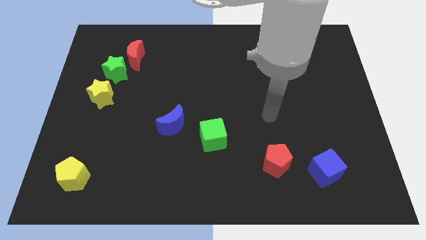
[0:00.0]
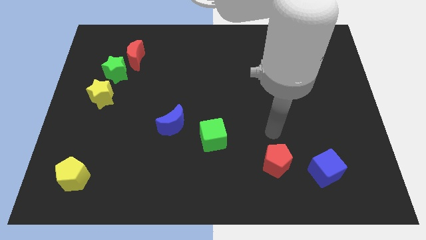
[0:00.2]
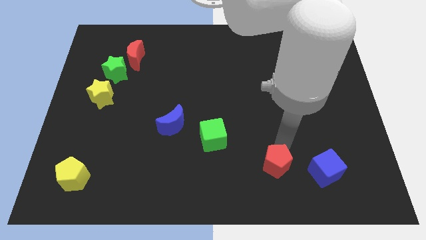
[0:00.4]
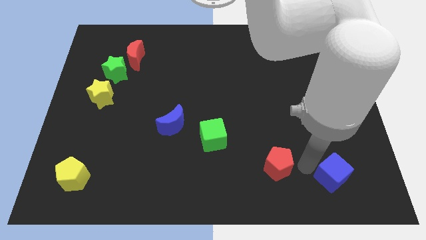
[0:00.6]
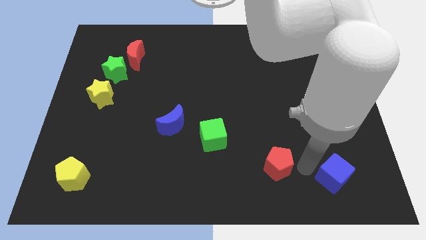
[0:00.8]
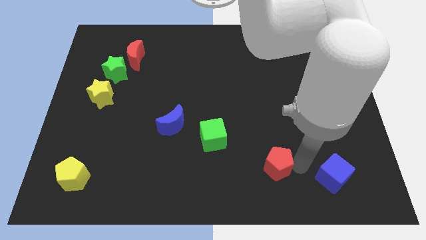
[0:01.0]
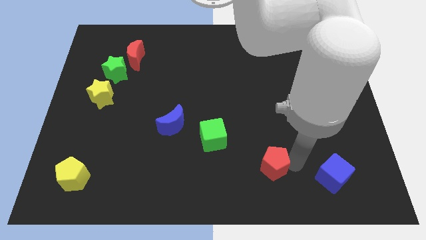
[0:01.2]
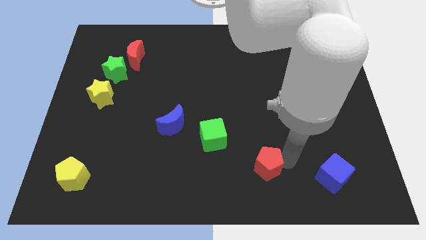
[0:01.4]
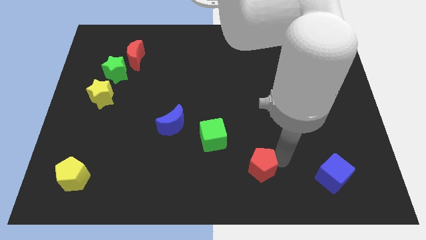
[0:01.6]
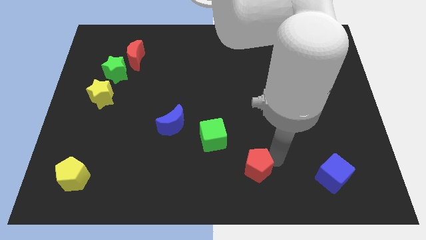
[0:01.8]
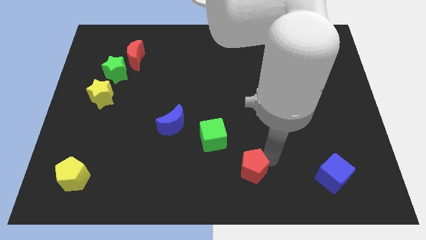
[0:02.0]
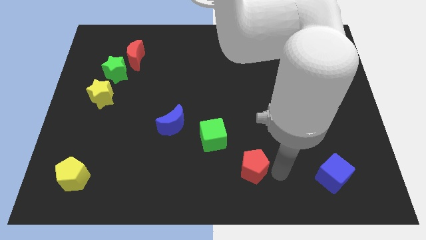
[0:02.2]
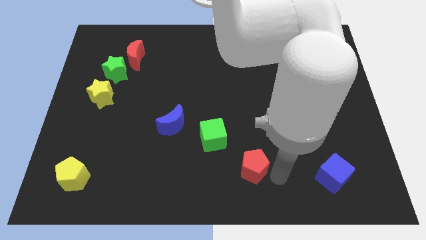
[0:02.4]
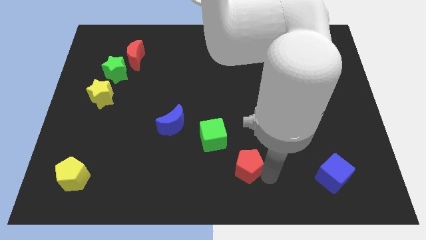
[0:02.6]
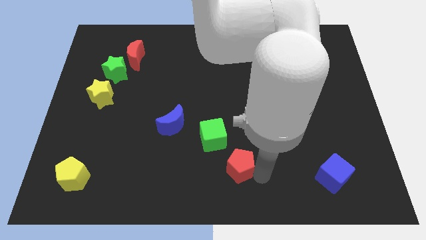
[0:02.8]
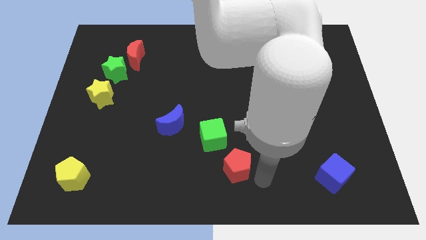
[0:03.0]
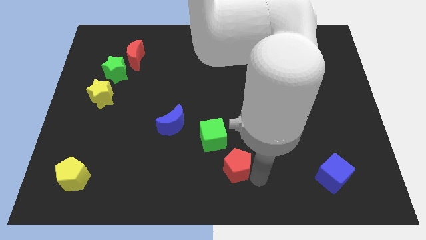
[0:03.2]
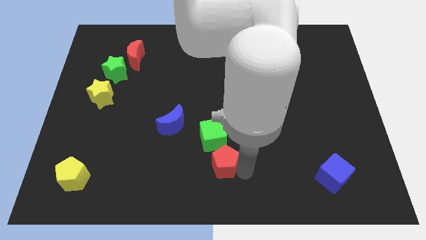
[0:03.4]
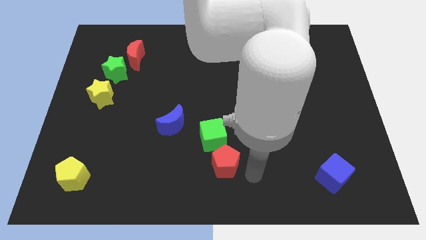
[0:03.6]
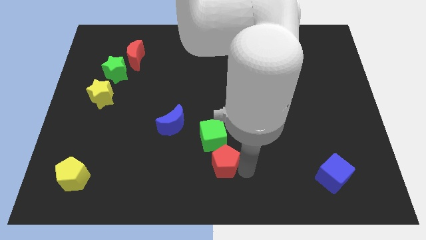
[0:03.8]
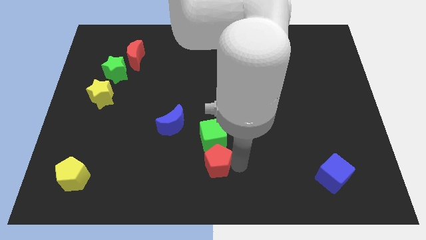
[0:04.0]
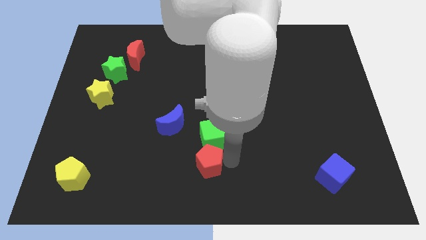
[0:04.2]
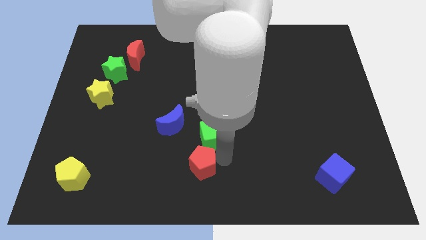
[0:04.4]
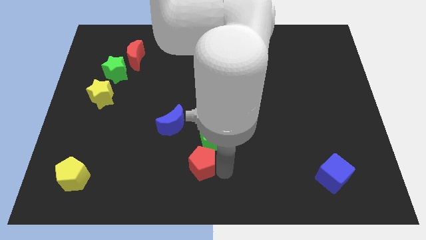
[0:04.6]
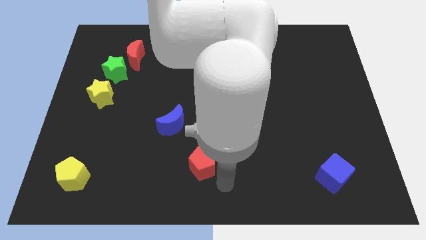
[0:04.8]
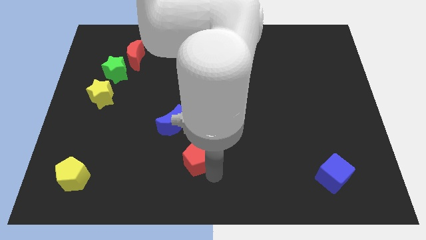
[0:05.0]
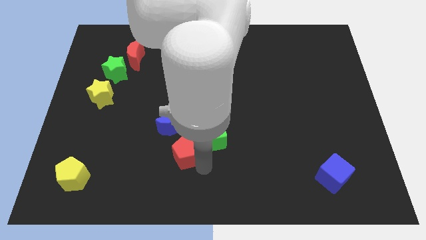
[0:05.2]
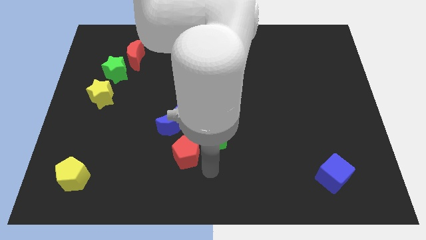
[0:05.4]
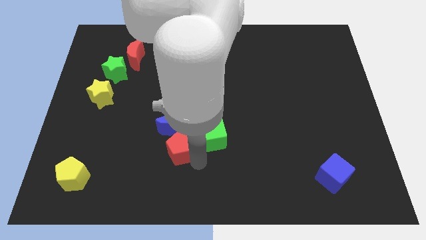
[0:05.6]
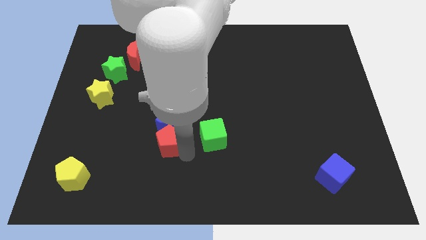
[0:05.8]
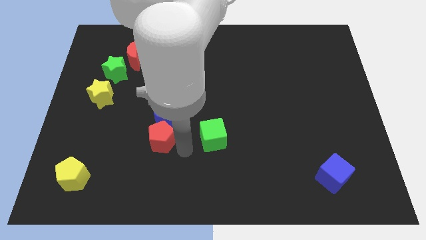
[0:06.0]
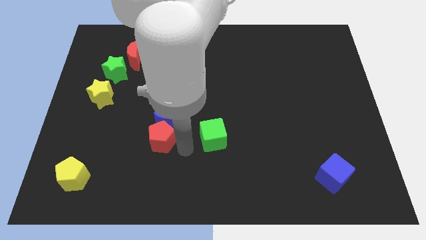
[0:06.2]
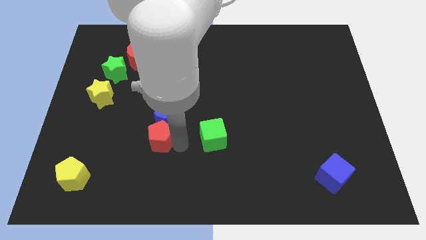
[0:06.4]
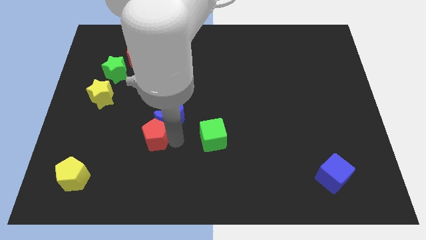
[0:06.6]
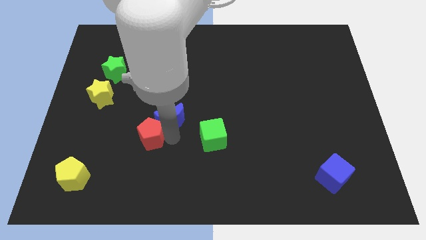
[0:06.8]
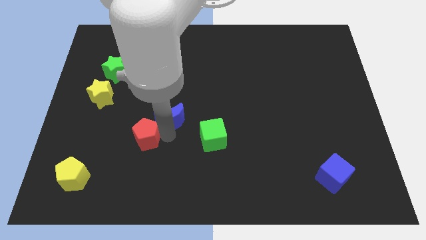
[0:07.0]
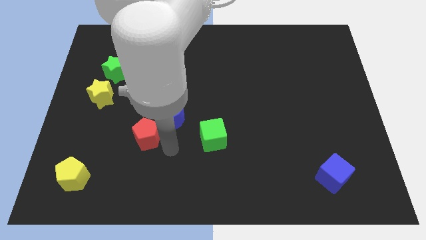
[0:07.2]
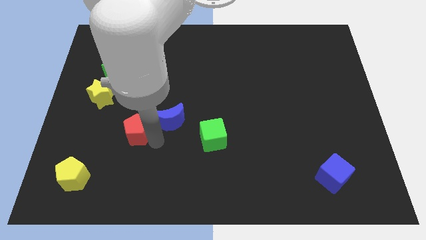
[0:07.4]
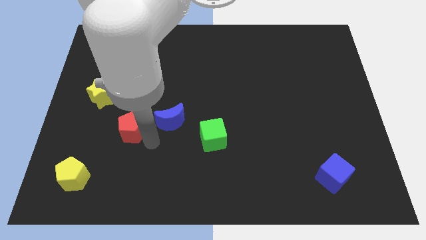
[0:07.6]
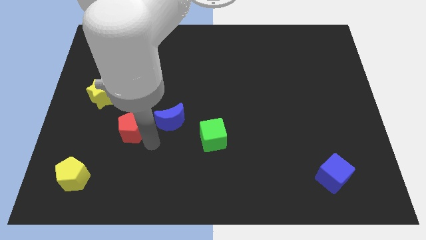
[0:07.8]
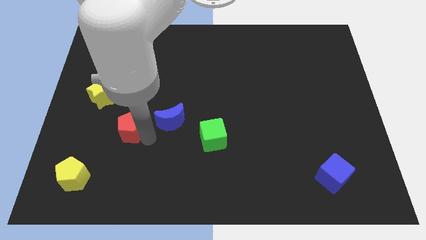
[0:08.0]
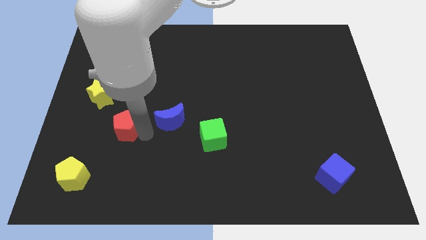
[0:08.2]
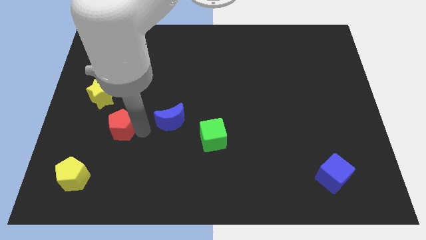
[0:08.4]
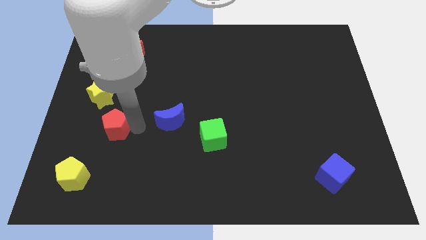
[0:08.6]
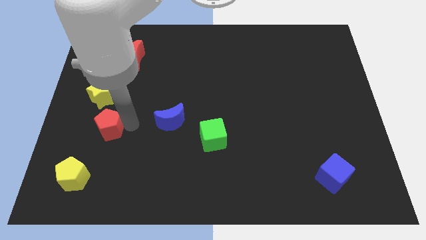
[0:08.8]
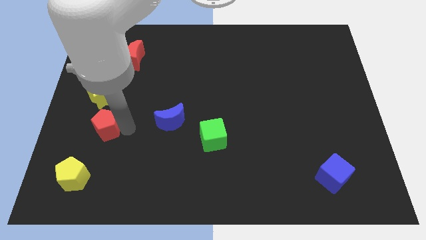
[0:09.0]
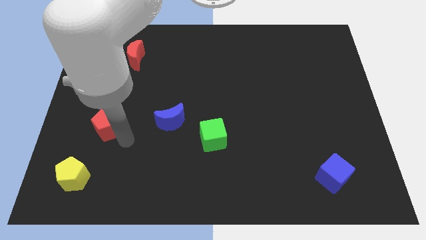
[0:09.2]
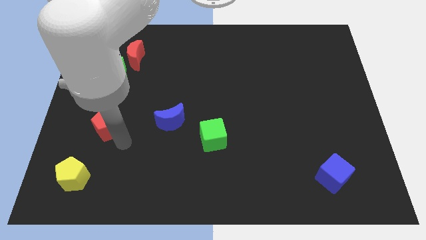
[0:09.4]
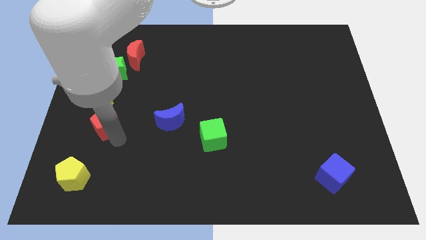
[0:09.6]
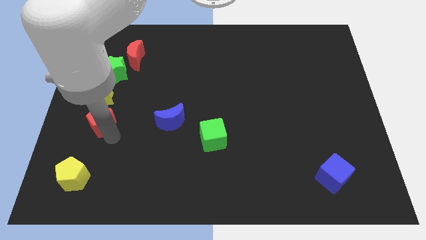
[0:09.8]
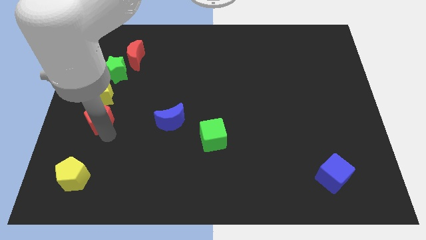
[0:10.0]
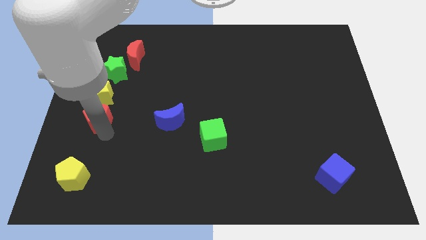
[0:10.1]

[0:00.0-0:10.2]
move the red pentagon to the center left

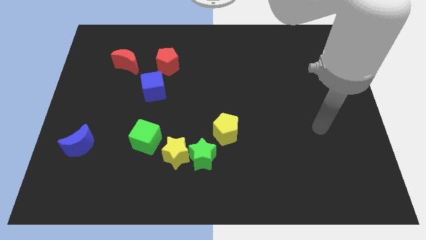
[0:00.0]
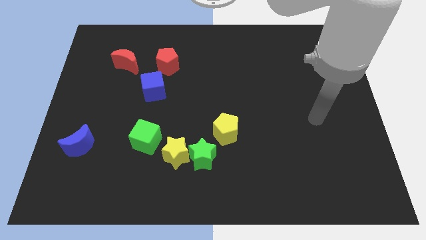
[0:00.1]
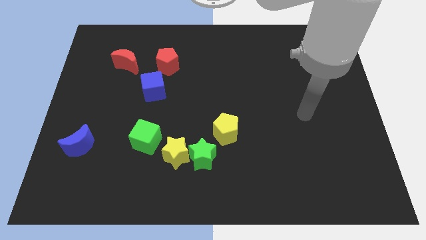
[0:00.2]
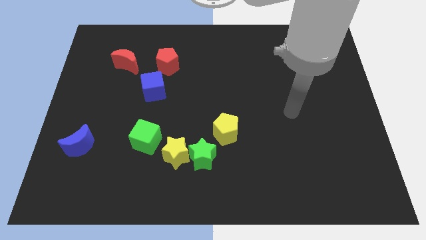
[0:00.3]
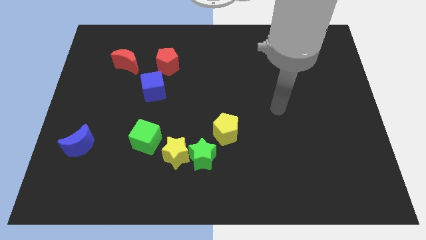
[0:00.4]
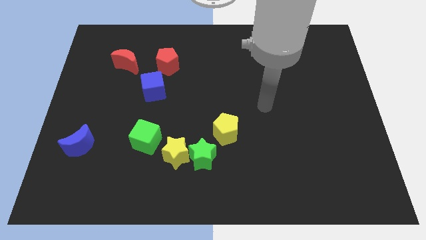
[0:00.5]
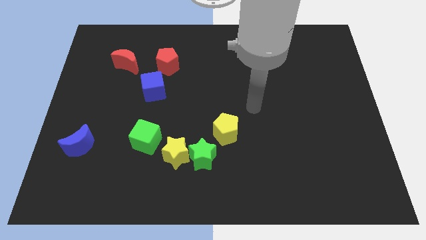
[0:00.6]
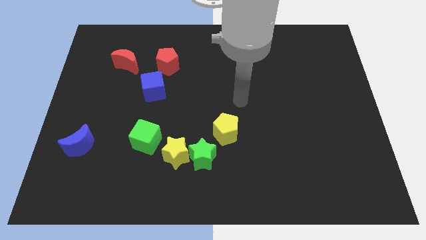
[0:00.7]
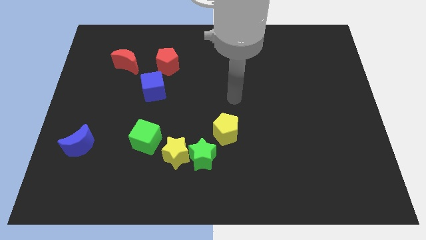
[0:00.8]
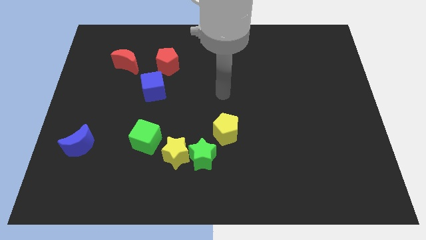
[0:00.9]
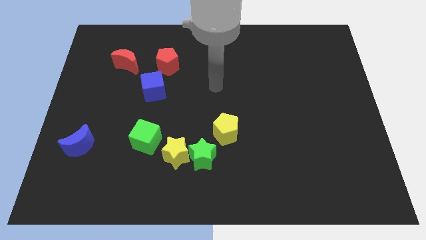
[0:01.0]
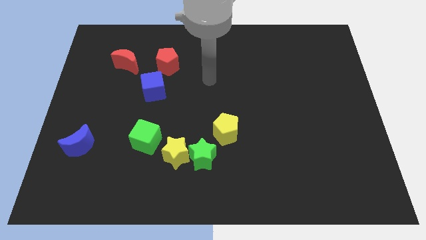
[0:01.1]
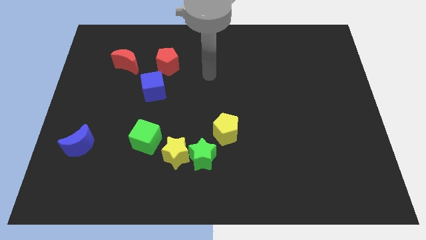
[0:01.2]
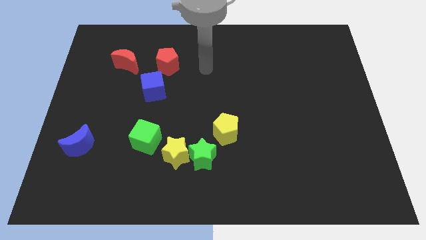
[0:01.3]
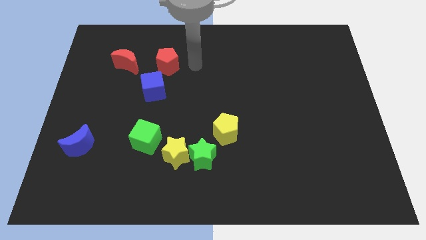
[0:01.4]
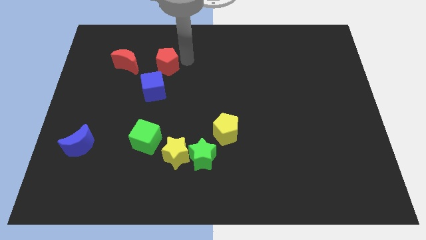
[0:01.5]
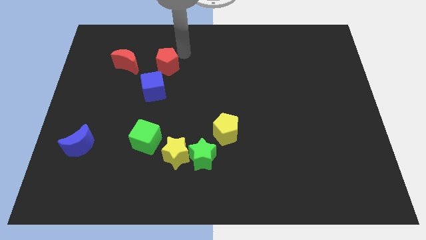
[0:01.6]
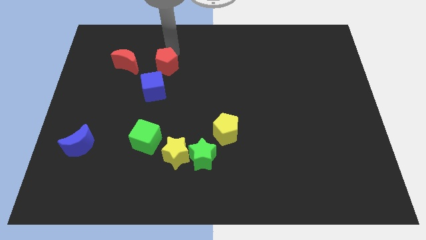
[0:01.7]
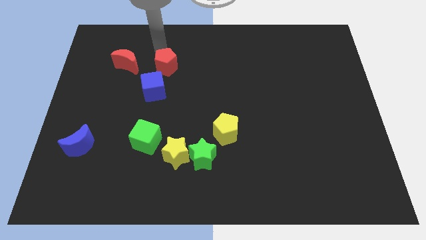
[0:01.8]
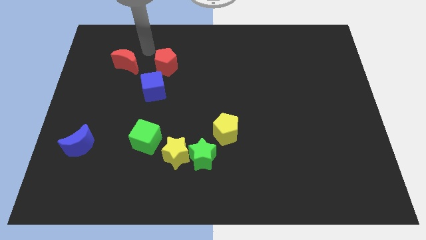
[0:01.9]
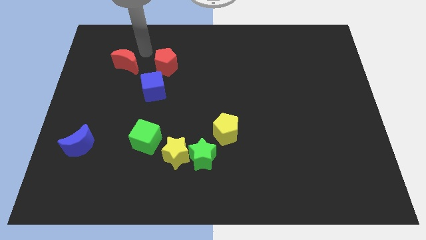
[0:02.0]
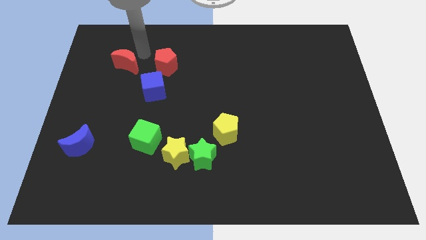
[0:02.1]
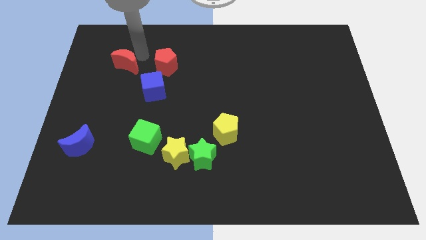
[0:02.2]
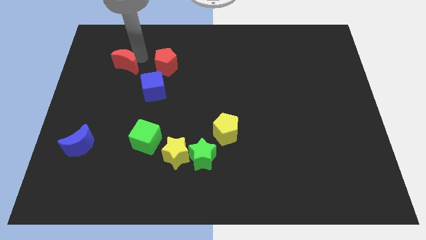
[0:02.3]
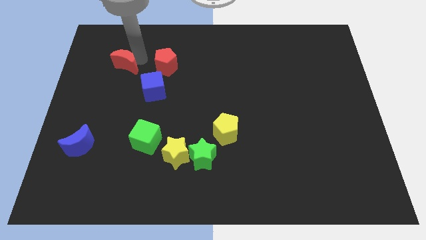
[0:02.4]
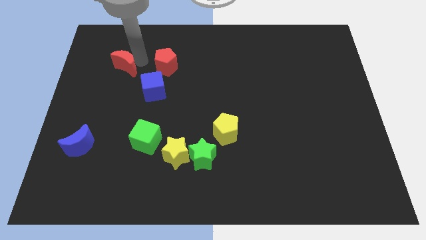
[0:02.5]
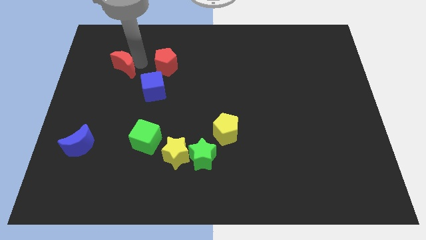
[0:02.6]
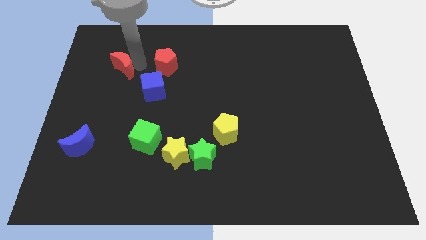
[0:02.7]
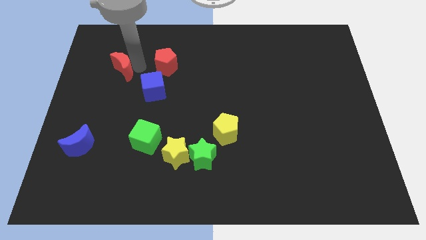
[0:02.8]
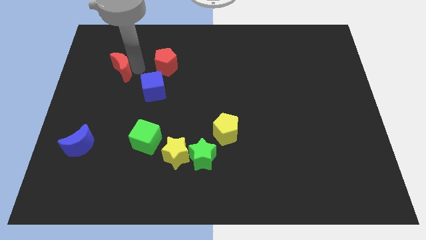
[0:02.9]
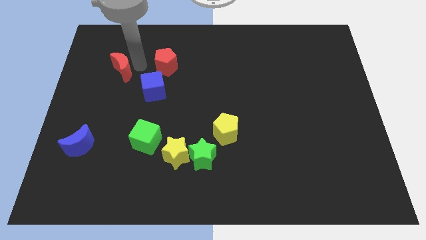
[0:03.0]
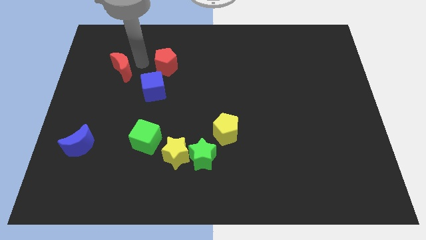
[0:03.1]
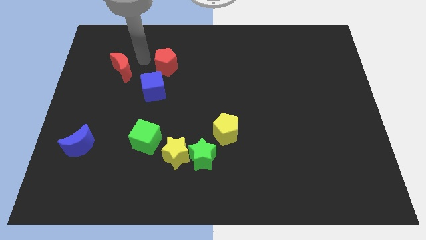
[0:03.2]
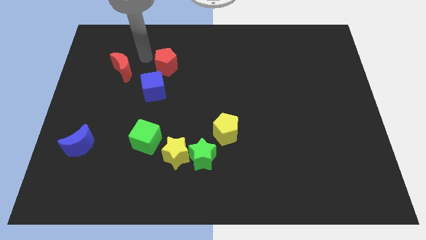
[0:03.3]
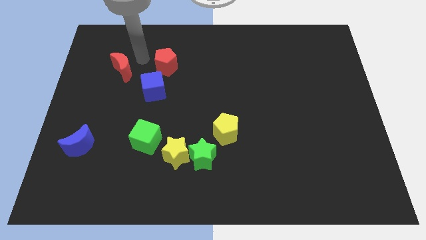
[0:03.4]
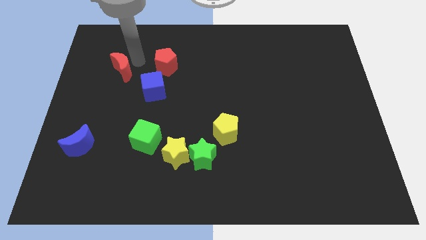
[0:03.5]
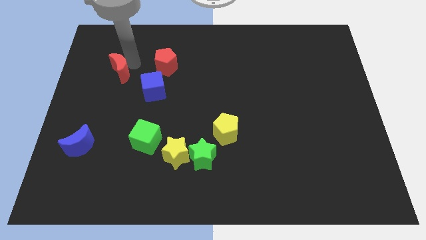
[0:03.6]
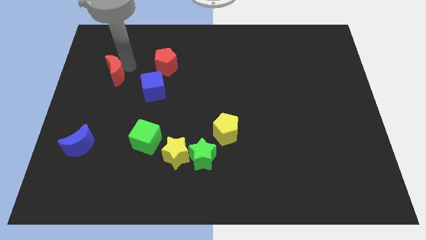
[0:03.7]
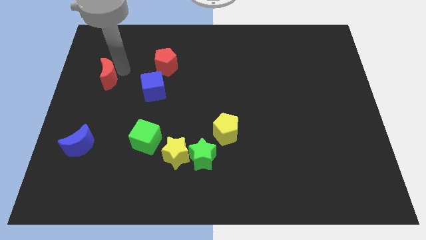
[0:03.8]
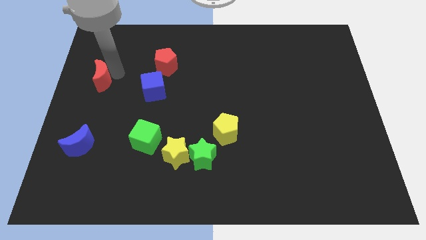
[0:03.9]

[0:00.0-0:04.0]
slide the red moon to the center left
